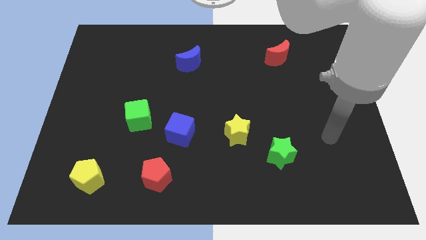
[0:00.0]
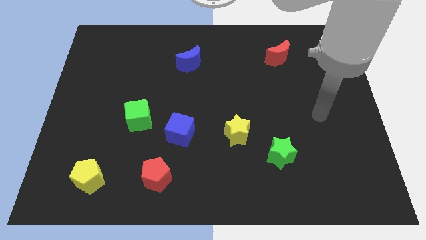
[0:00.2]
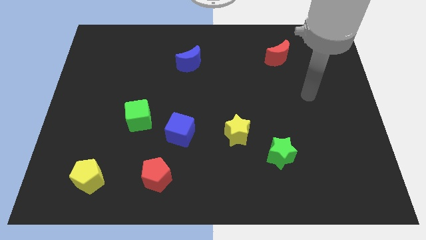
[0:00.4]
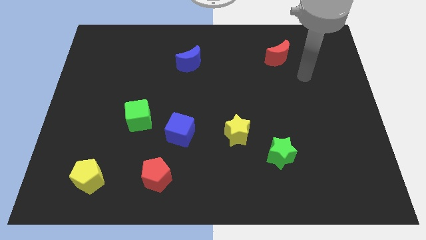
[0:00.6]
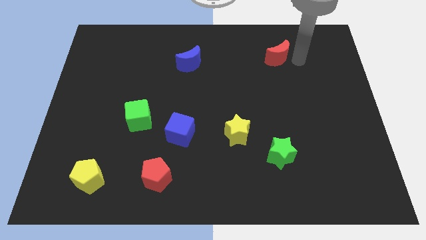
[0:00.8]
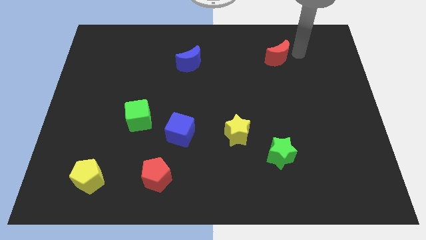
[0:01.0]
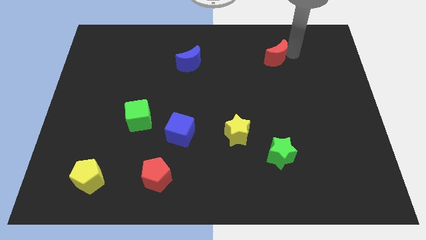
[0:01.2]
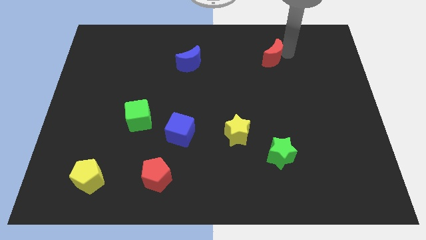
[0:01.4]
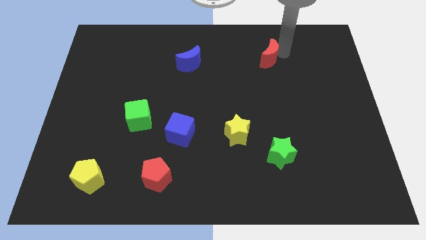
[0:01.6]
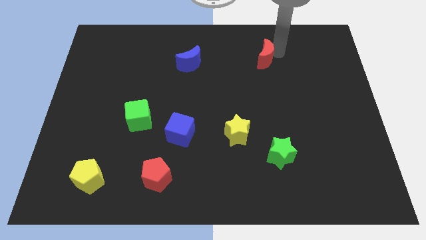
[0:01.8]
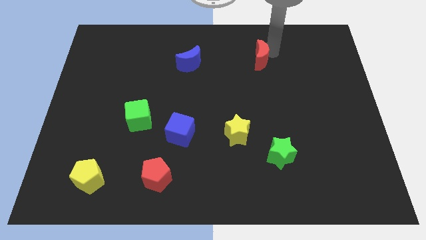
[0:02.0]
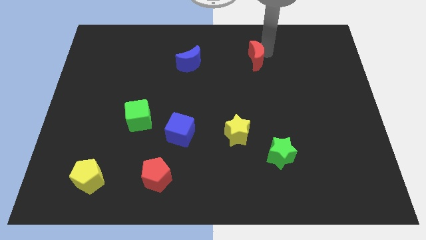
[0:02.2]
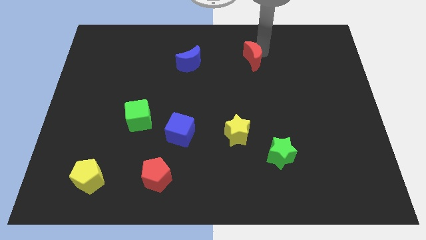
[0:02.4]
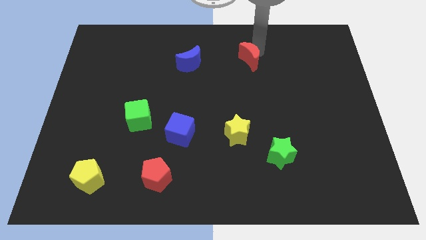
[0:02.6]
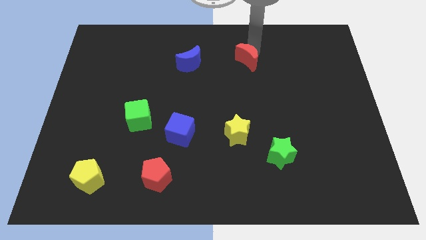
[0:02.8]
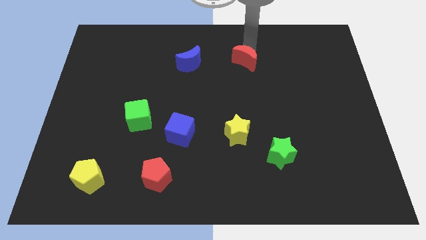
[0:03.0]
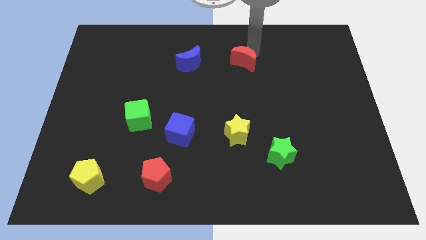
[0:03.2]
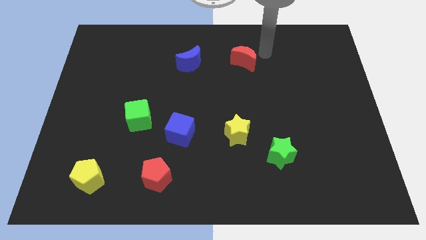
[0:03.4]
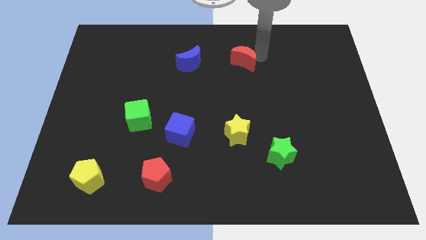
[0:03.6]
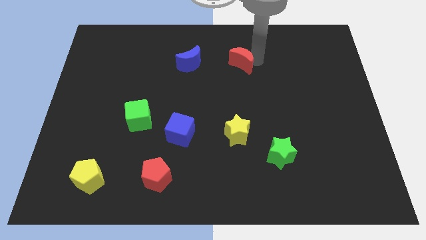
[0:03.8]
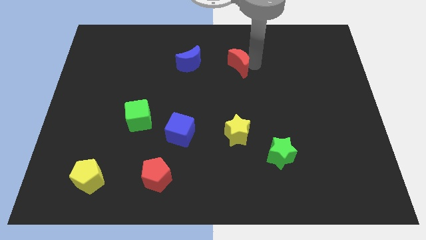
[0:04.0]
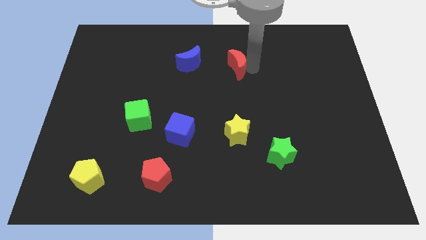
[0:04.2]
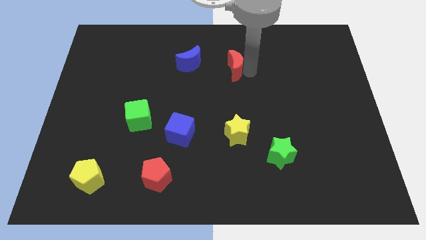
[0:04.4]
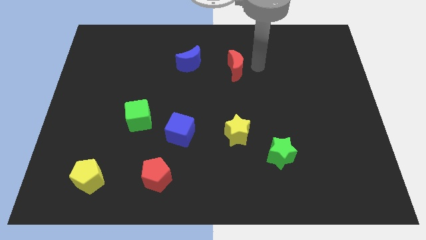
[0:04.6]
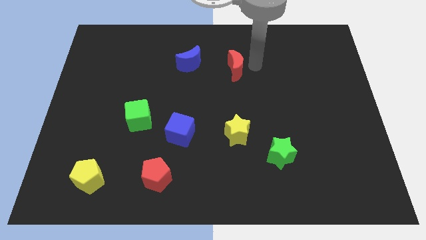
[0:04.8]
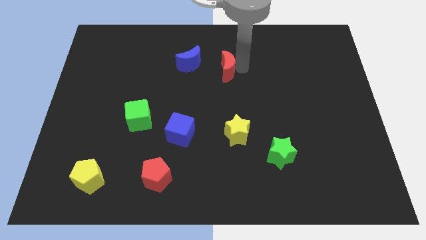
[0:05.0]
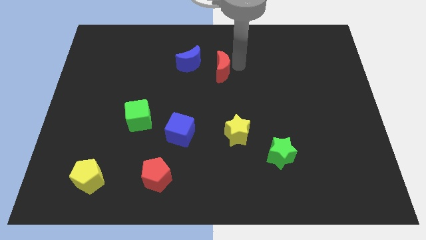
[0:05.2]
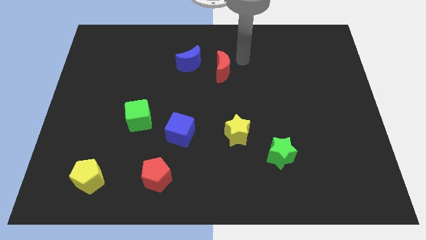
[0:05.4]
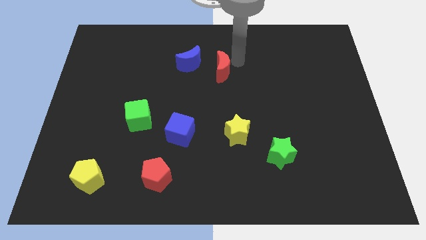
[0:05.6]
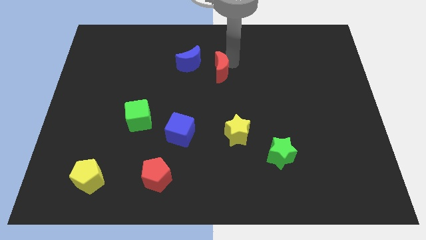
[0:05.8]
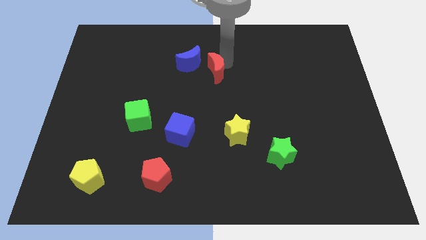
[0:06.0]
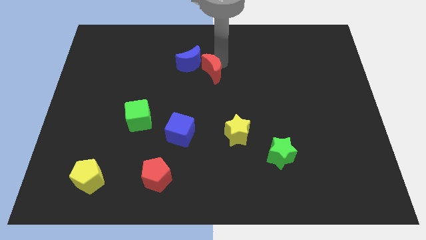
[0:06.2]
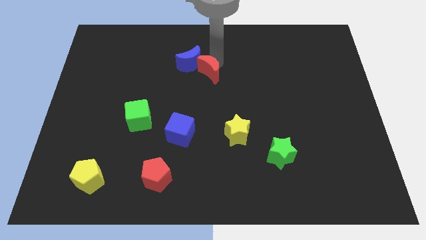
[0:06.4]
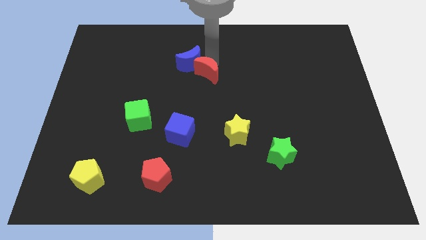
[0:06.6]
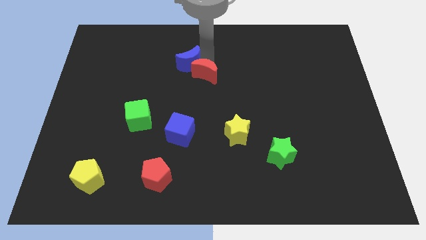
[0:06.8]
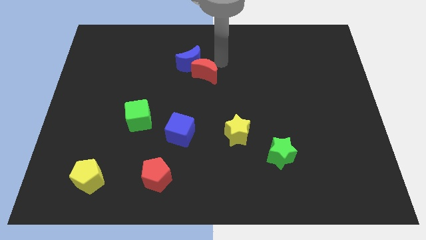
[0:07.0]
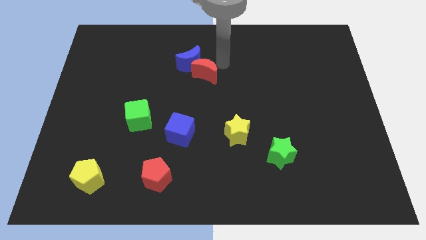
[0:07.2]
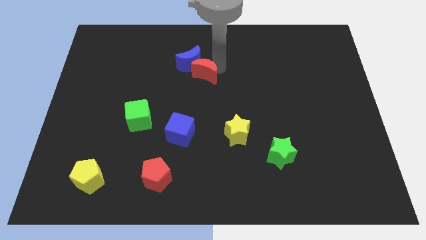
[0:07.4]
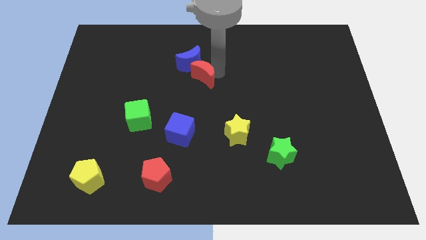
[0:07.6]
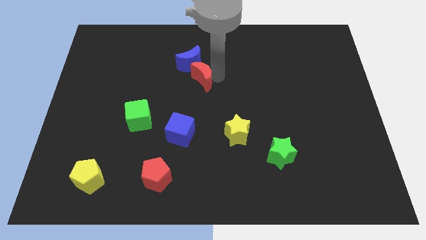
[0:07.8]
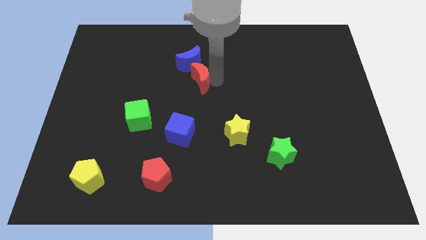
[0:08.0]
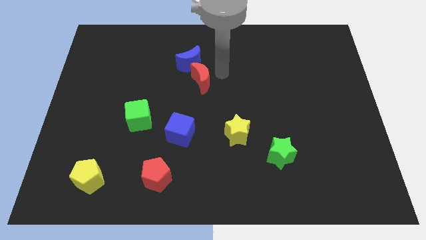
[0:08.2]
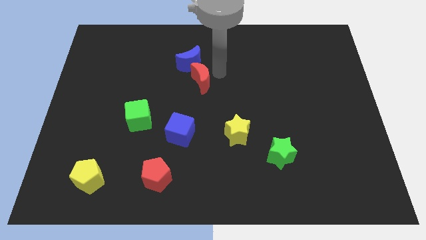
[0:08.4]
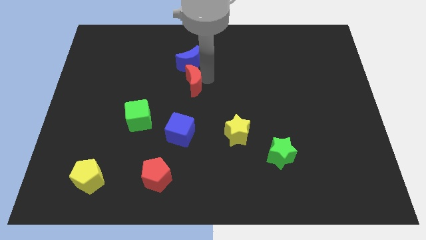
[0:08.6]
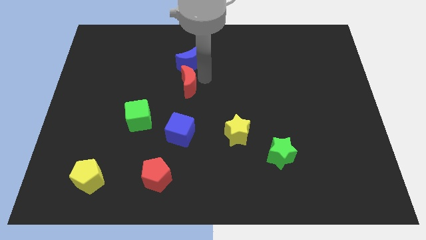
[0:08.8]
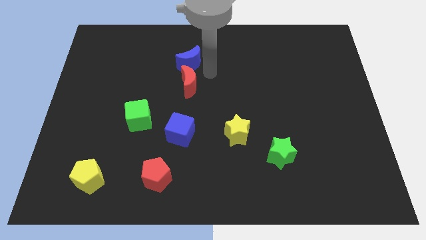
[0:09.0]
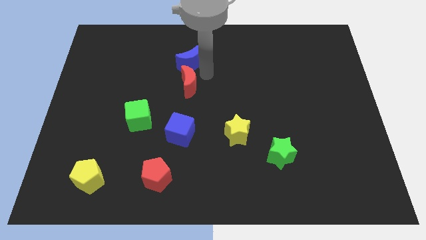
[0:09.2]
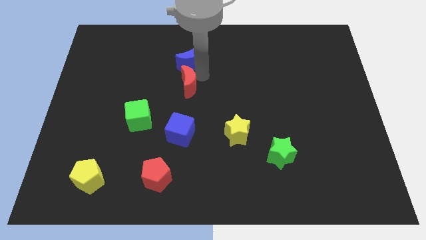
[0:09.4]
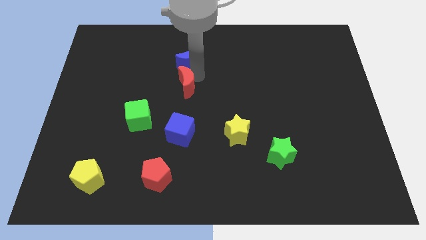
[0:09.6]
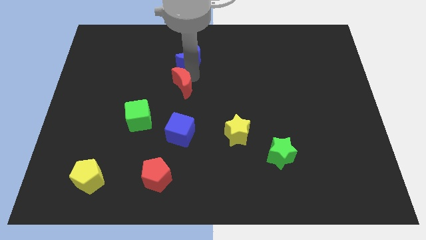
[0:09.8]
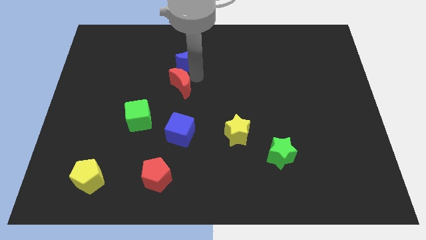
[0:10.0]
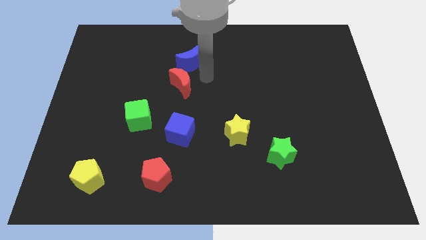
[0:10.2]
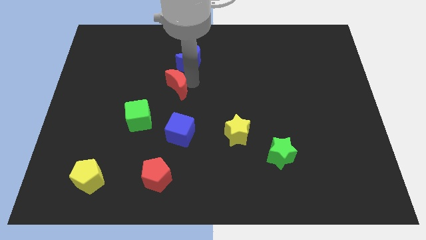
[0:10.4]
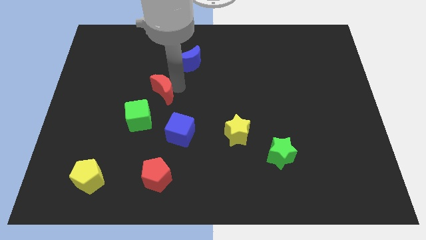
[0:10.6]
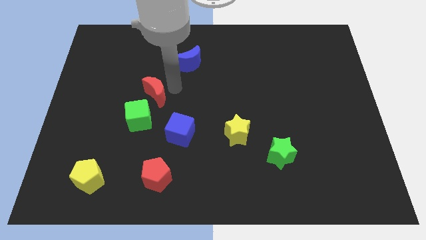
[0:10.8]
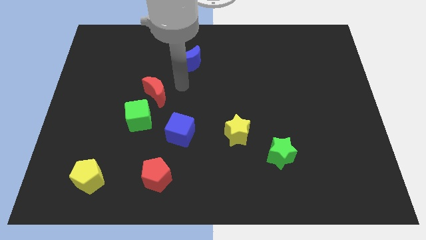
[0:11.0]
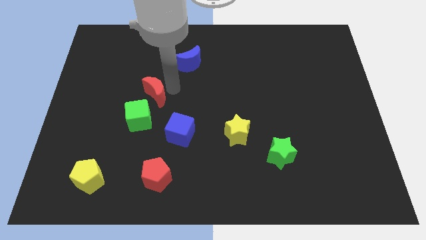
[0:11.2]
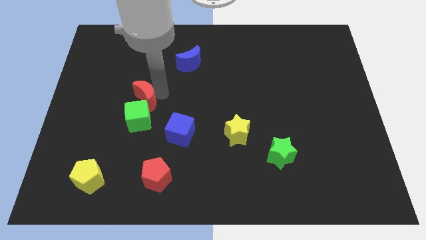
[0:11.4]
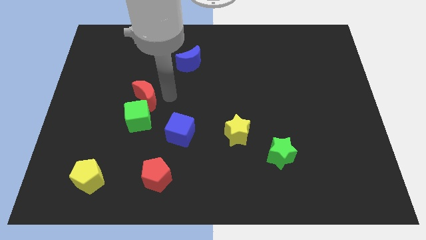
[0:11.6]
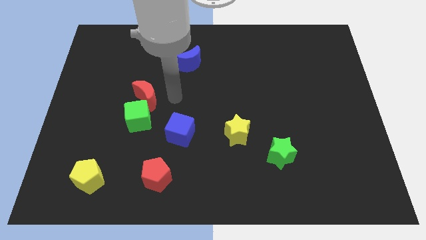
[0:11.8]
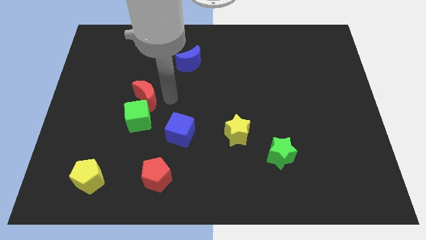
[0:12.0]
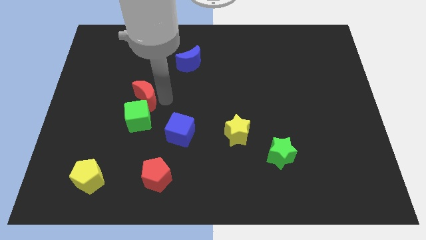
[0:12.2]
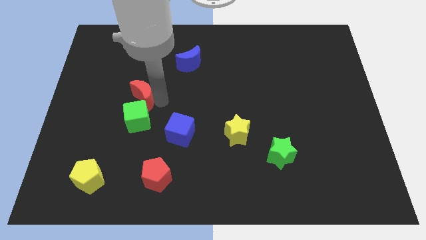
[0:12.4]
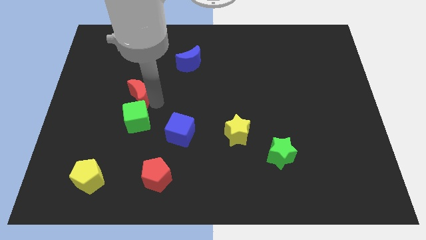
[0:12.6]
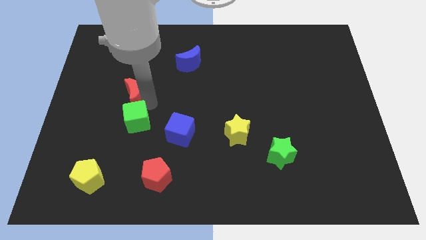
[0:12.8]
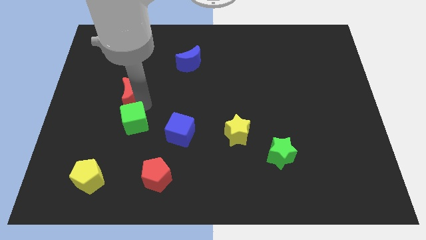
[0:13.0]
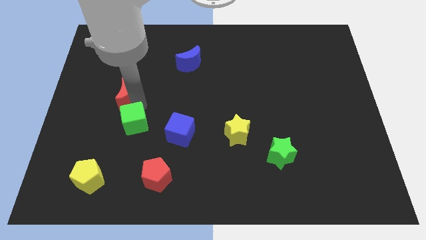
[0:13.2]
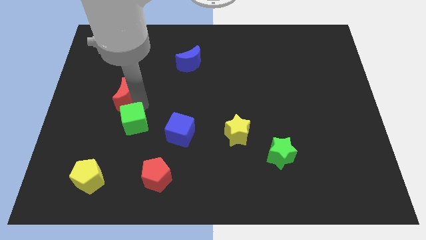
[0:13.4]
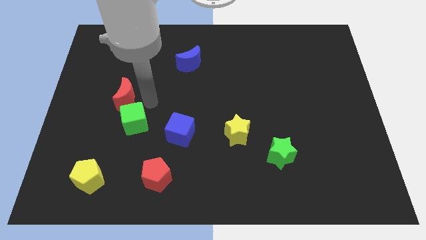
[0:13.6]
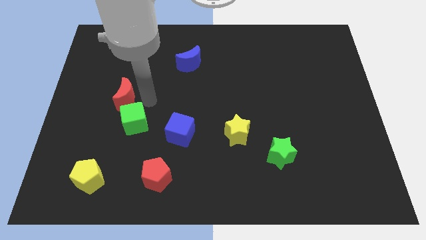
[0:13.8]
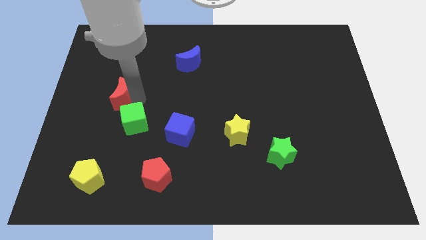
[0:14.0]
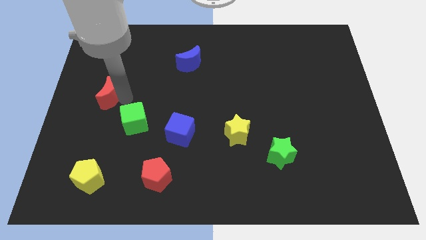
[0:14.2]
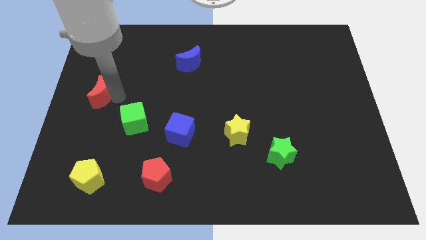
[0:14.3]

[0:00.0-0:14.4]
move the red moon to the left side
